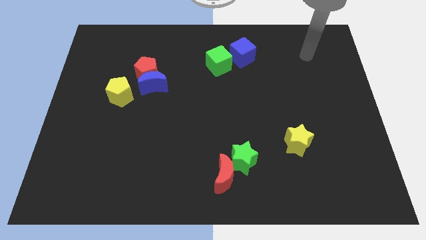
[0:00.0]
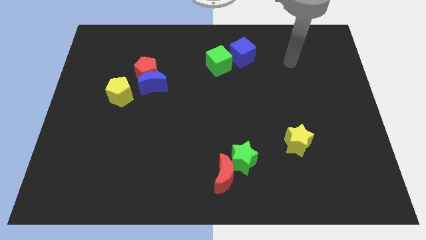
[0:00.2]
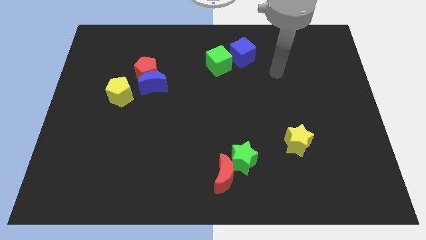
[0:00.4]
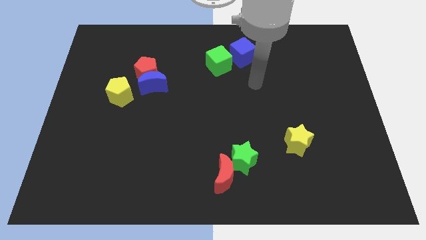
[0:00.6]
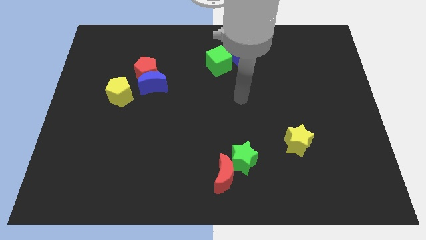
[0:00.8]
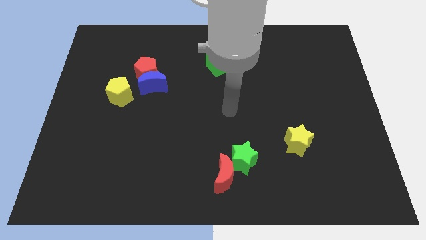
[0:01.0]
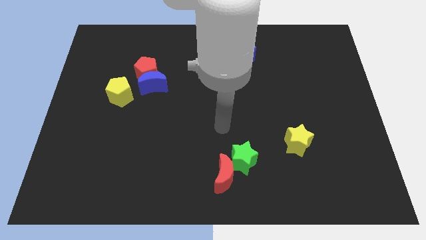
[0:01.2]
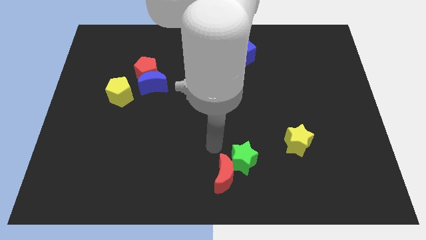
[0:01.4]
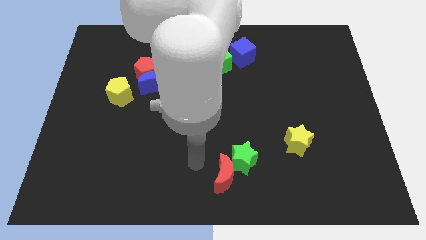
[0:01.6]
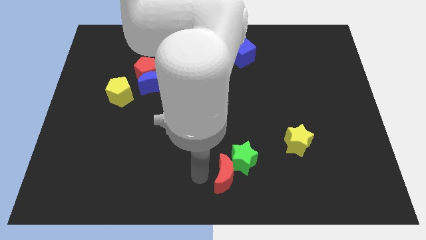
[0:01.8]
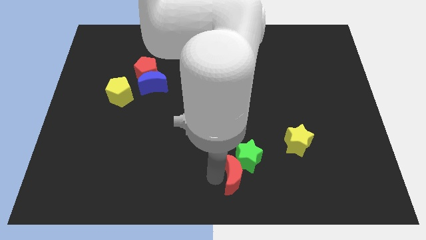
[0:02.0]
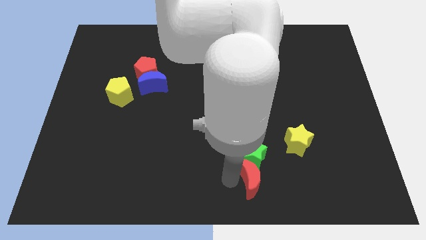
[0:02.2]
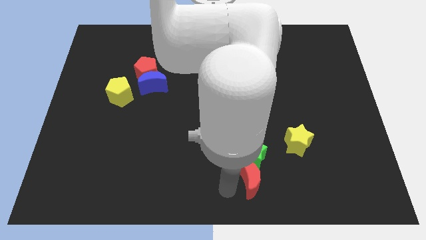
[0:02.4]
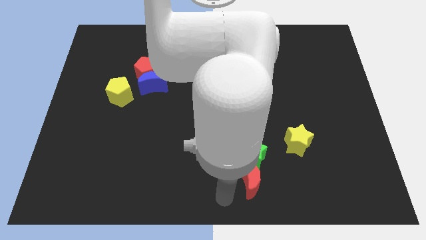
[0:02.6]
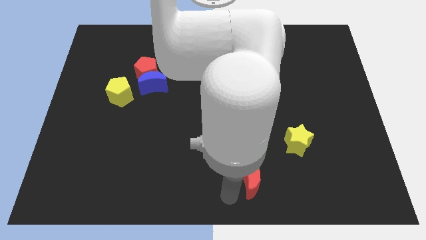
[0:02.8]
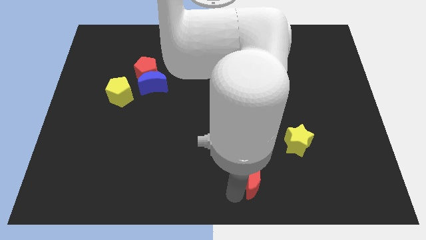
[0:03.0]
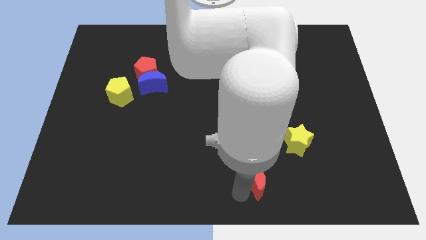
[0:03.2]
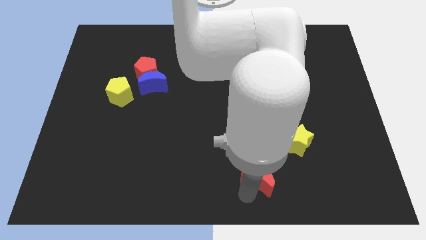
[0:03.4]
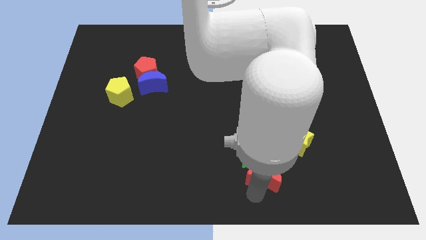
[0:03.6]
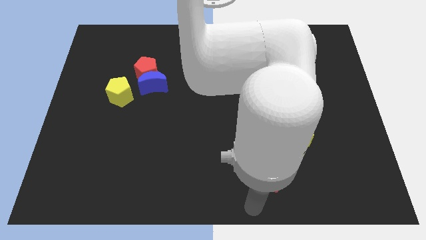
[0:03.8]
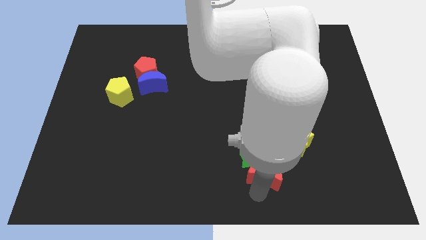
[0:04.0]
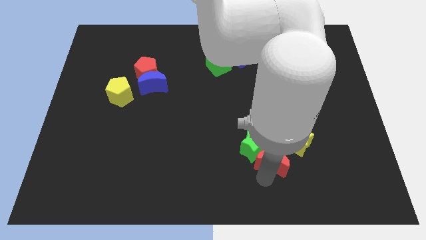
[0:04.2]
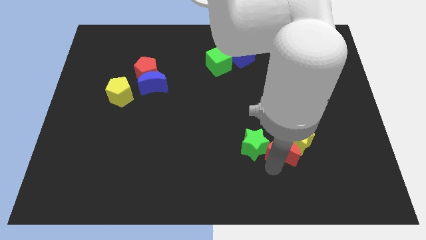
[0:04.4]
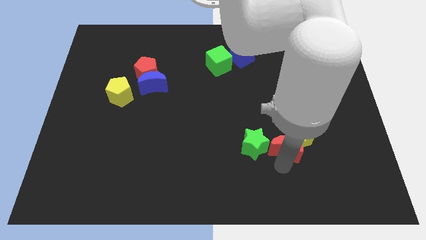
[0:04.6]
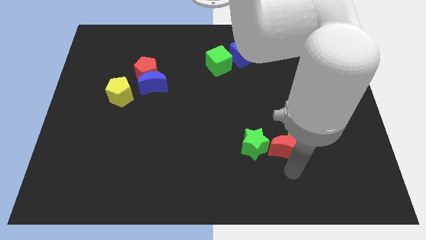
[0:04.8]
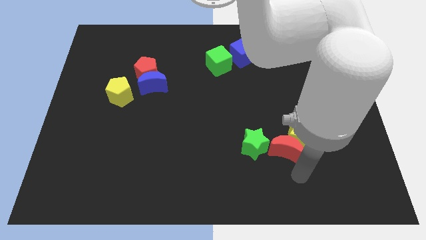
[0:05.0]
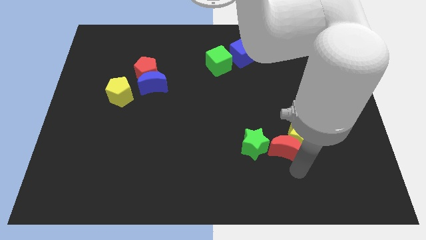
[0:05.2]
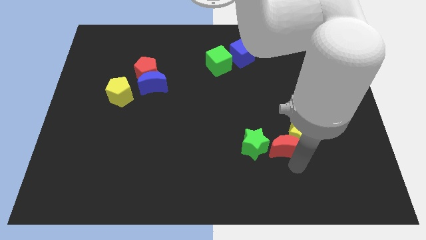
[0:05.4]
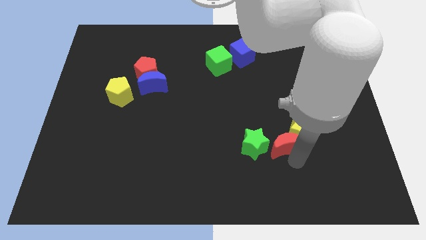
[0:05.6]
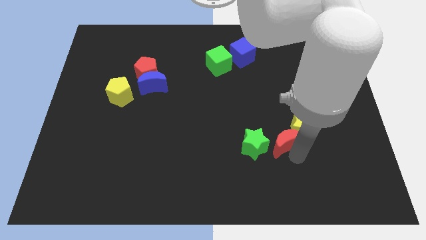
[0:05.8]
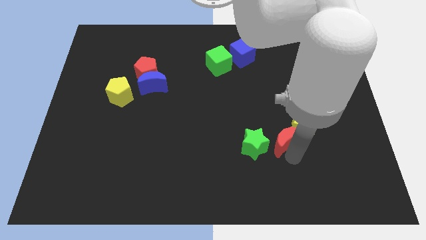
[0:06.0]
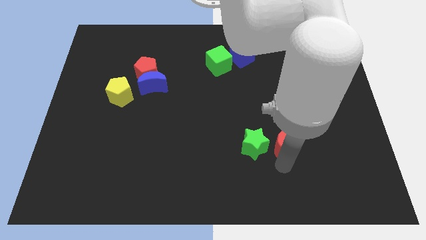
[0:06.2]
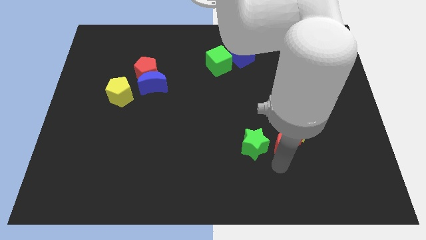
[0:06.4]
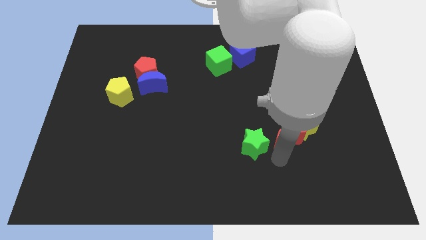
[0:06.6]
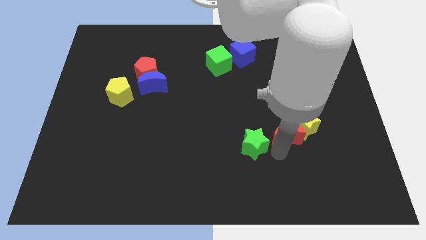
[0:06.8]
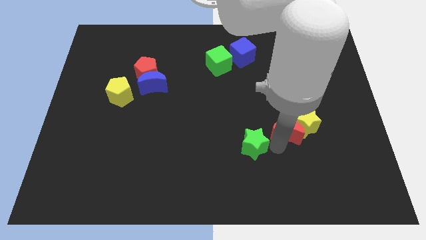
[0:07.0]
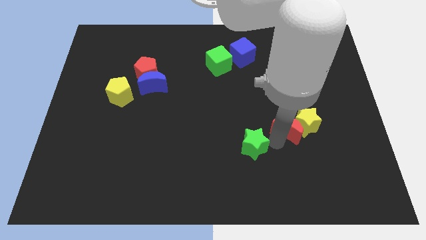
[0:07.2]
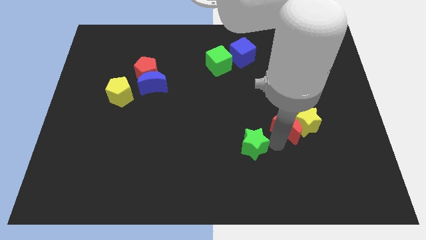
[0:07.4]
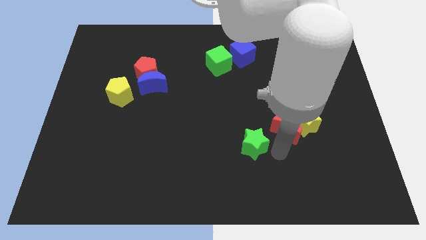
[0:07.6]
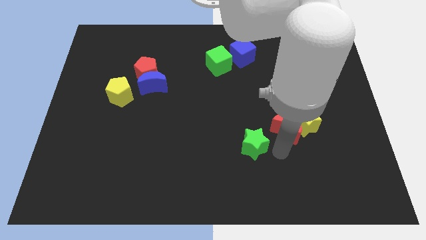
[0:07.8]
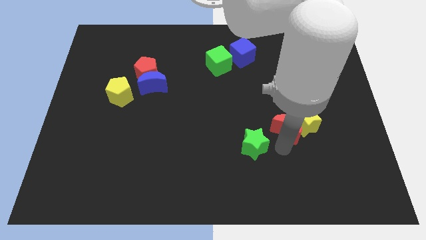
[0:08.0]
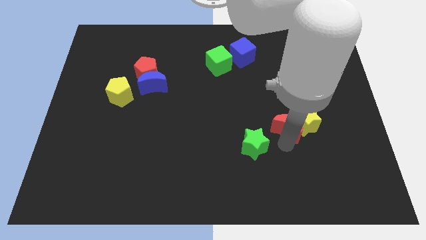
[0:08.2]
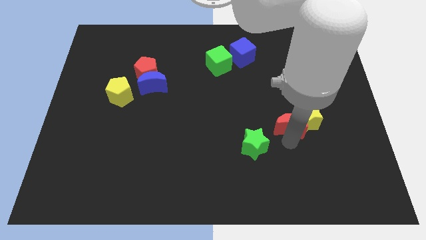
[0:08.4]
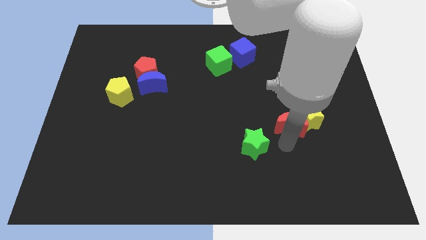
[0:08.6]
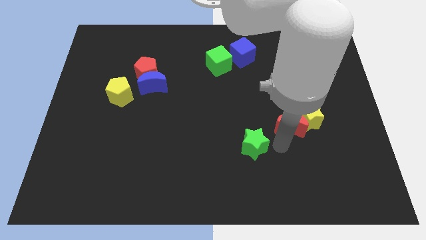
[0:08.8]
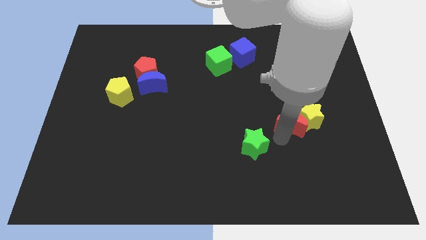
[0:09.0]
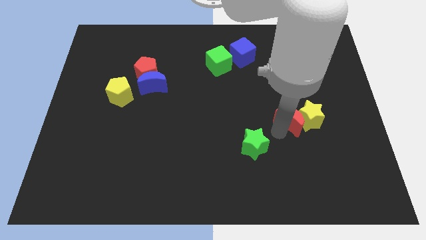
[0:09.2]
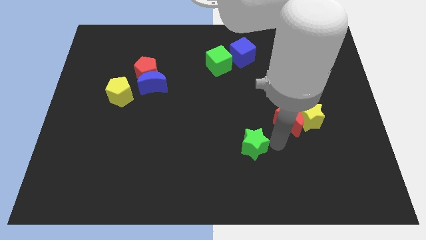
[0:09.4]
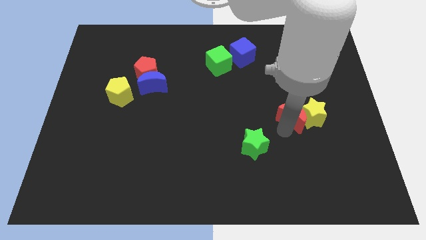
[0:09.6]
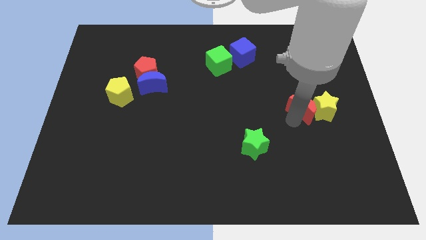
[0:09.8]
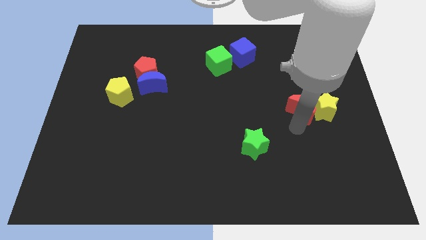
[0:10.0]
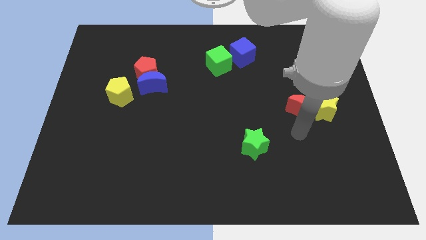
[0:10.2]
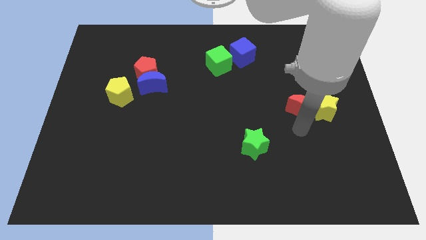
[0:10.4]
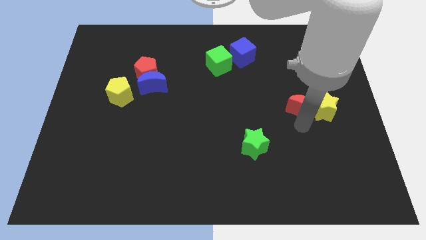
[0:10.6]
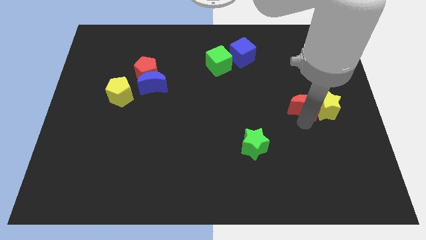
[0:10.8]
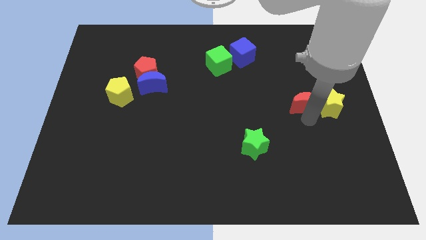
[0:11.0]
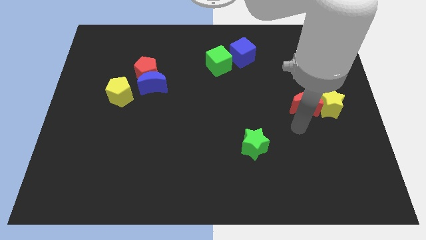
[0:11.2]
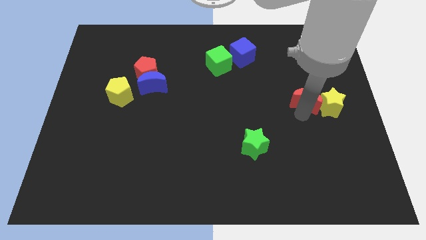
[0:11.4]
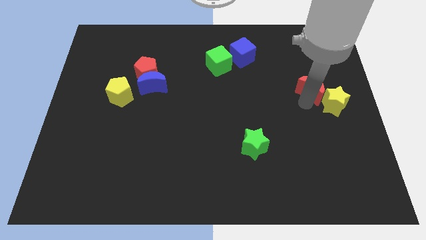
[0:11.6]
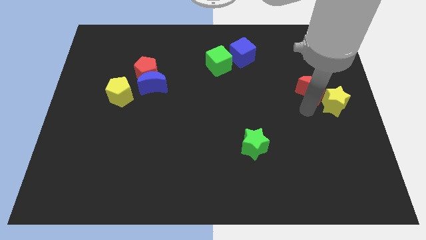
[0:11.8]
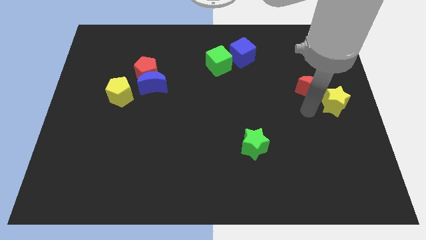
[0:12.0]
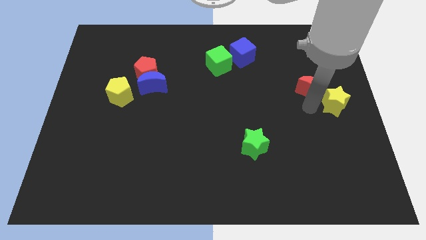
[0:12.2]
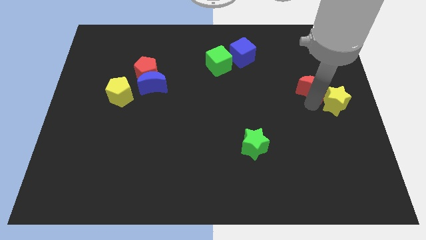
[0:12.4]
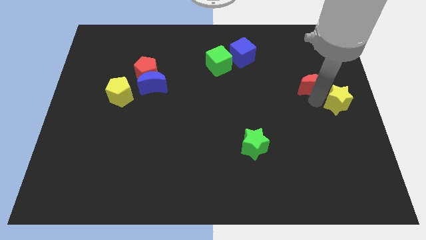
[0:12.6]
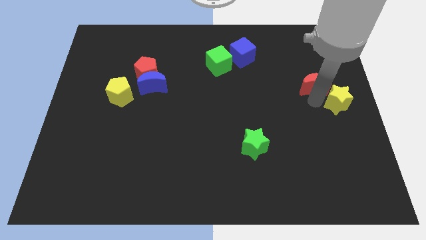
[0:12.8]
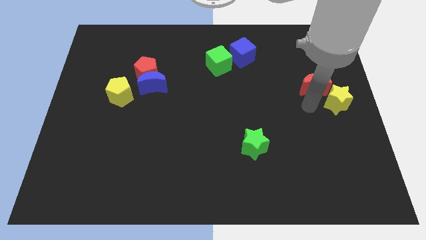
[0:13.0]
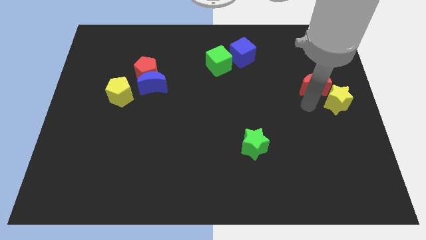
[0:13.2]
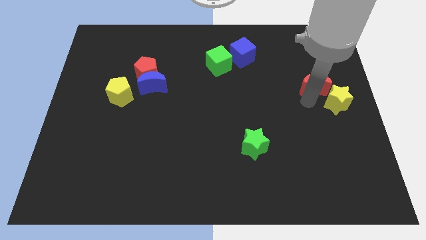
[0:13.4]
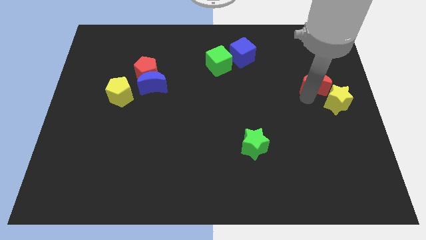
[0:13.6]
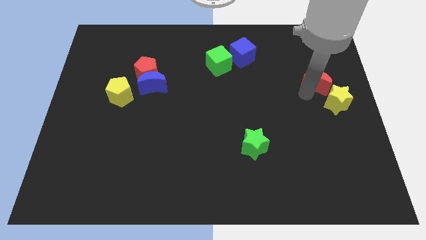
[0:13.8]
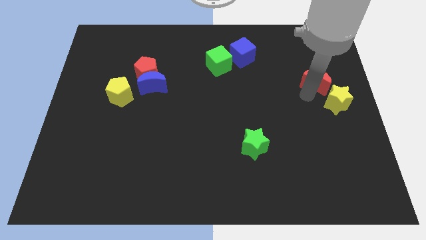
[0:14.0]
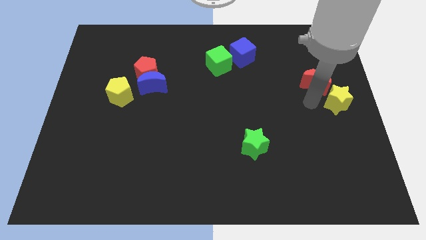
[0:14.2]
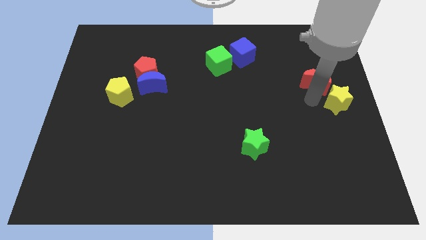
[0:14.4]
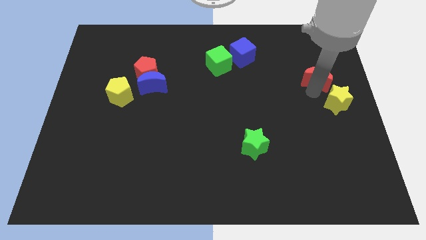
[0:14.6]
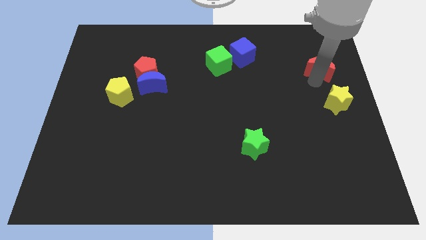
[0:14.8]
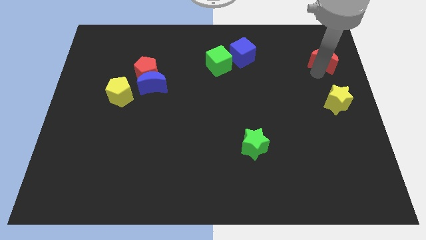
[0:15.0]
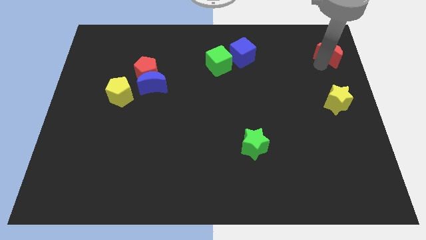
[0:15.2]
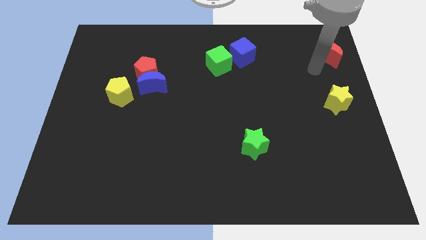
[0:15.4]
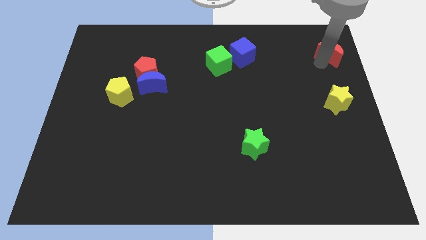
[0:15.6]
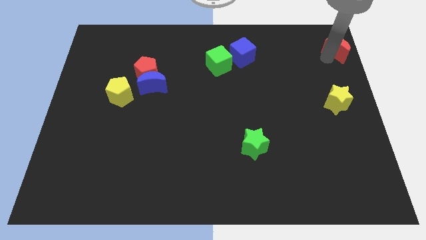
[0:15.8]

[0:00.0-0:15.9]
move the red moon to the upper right corner
